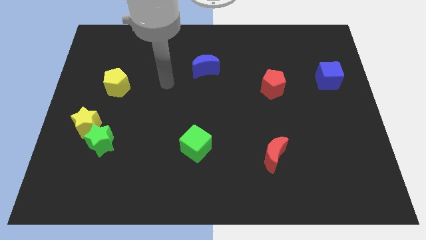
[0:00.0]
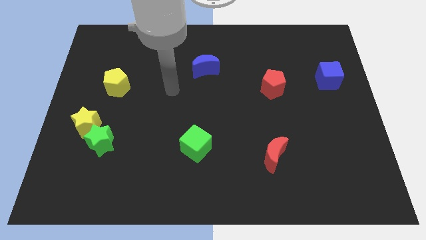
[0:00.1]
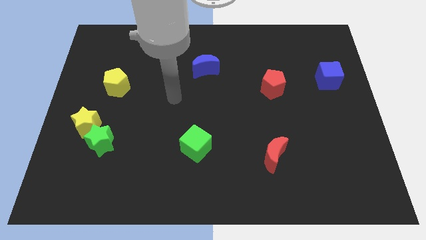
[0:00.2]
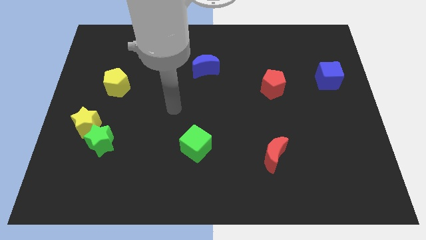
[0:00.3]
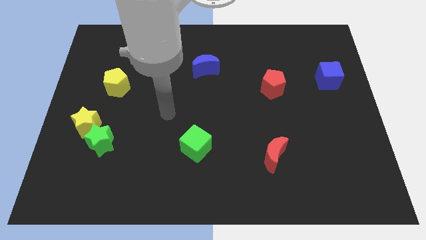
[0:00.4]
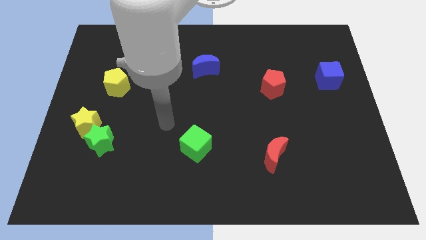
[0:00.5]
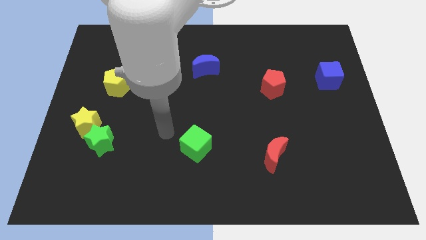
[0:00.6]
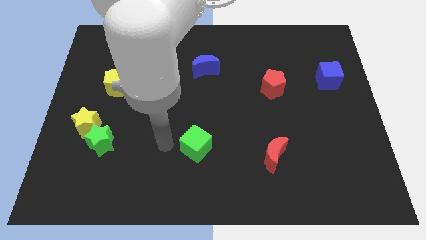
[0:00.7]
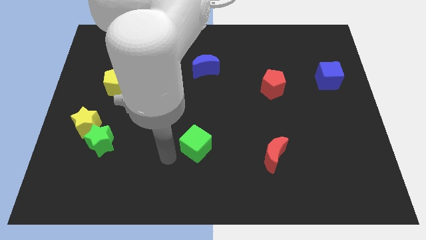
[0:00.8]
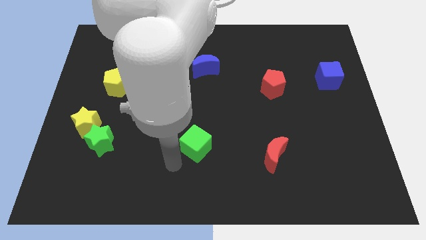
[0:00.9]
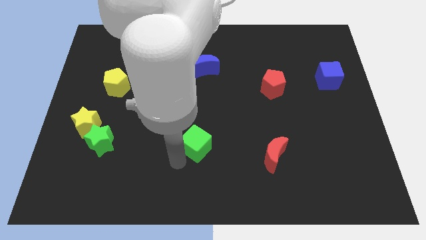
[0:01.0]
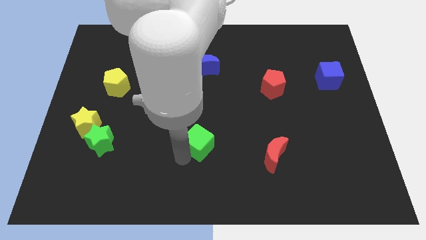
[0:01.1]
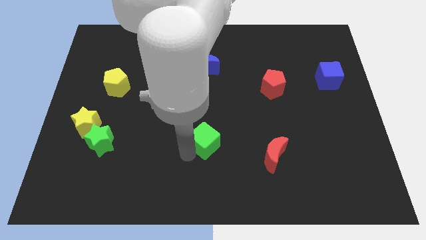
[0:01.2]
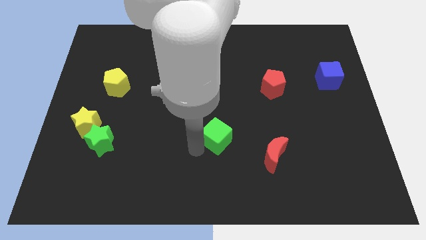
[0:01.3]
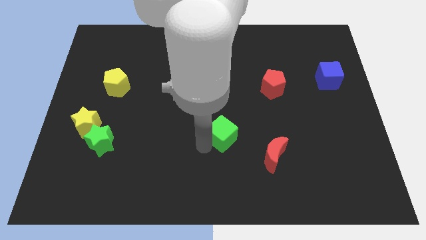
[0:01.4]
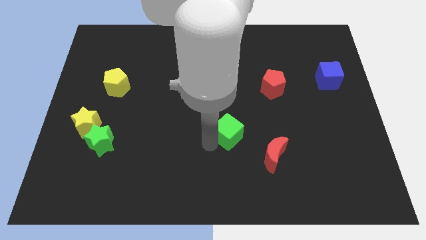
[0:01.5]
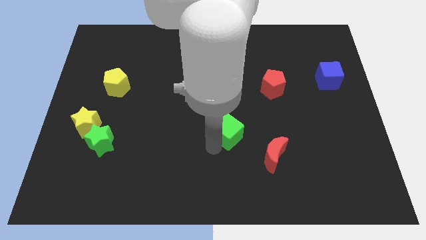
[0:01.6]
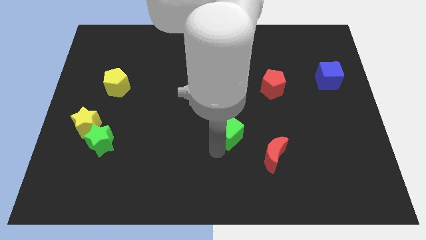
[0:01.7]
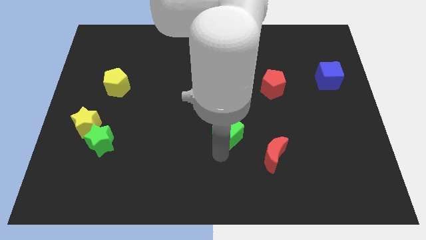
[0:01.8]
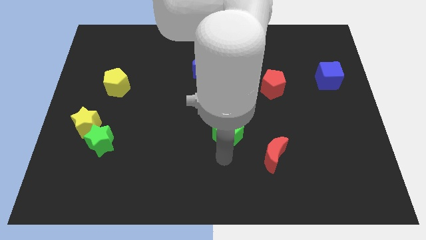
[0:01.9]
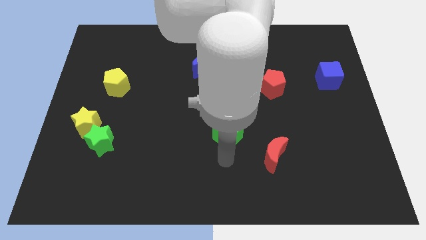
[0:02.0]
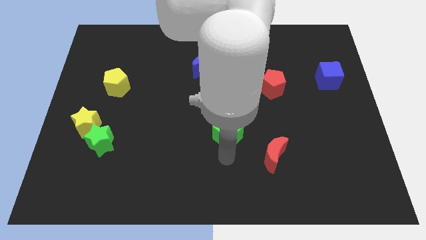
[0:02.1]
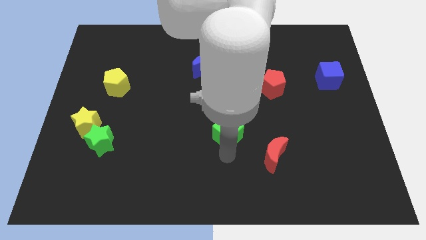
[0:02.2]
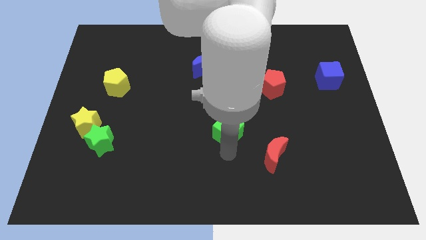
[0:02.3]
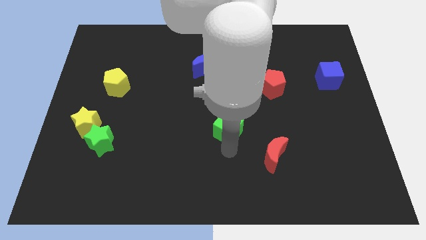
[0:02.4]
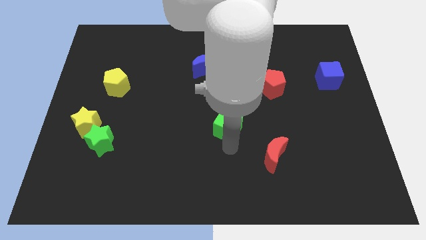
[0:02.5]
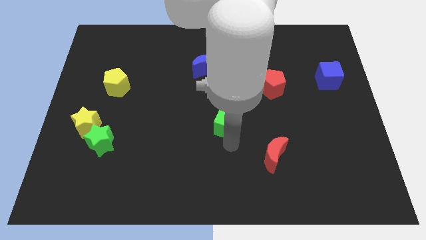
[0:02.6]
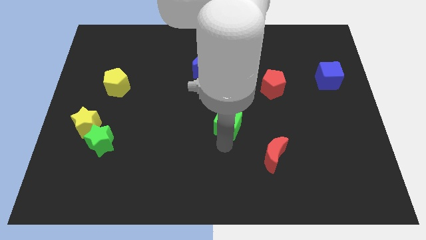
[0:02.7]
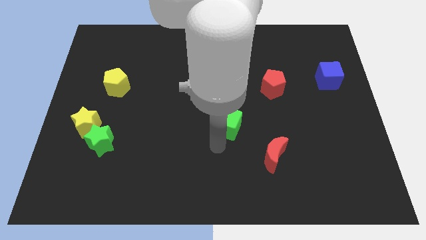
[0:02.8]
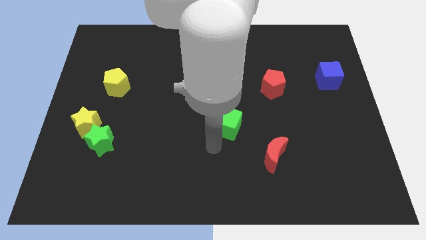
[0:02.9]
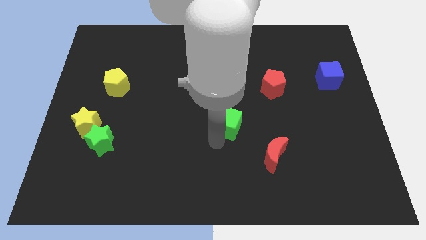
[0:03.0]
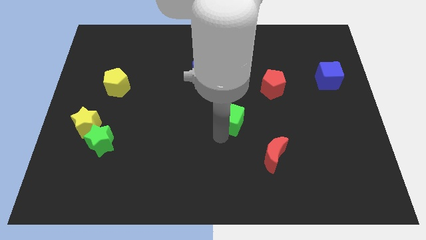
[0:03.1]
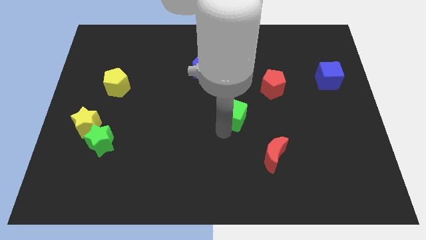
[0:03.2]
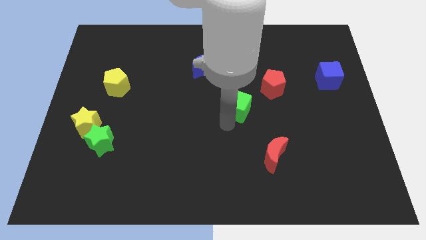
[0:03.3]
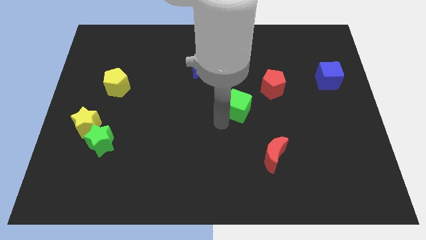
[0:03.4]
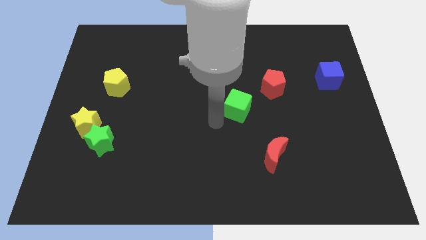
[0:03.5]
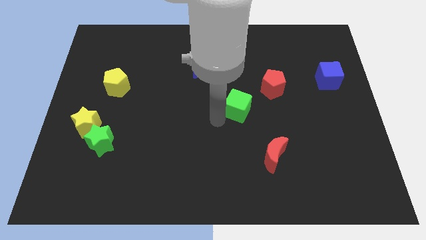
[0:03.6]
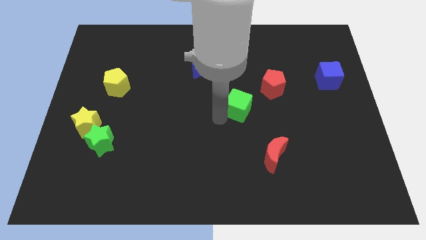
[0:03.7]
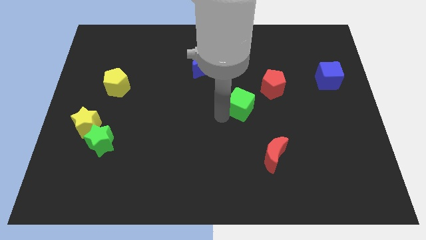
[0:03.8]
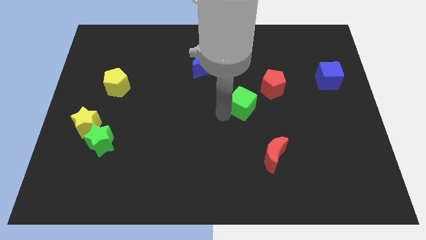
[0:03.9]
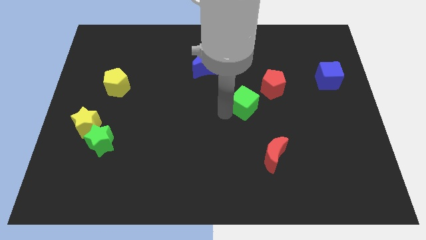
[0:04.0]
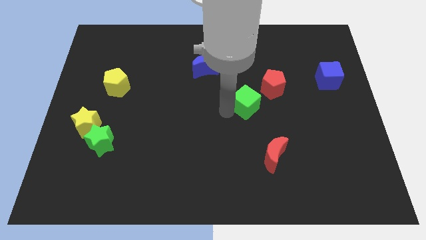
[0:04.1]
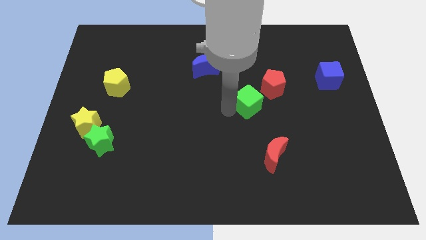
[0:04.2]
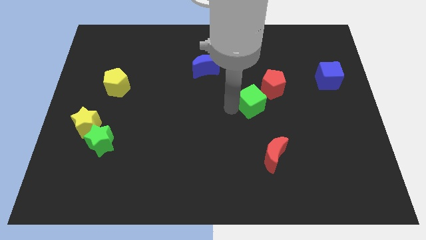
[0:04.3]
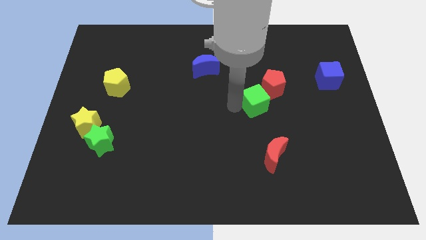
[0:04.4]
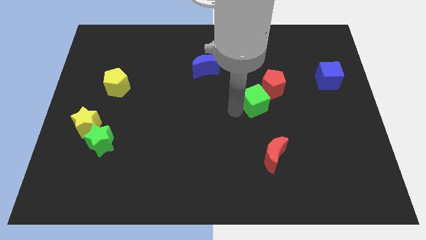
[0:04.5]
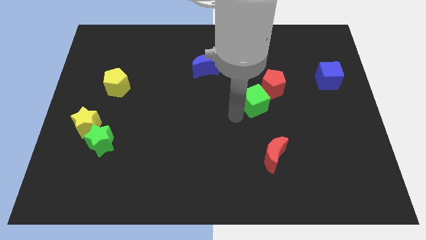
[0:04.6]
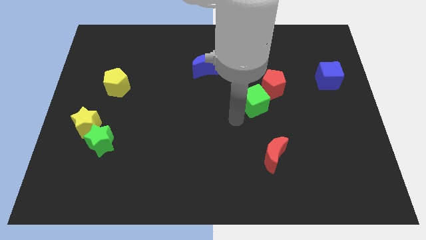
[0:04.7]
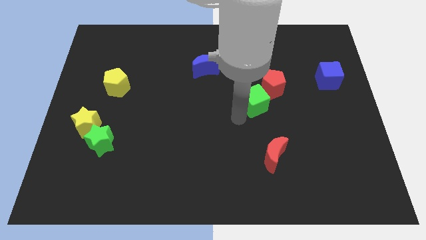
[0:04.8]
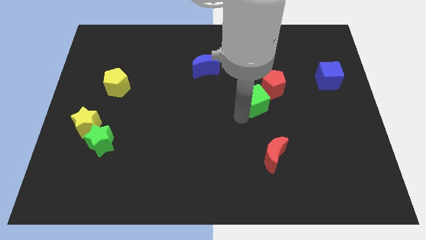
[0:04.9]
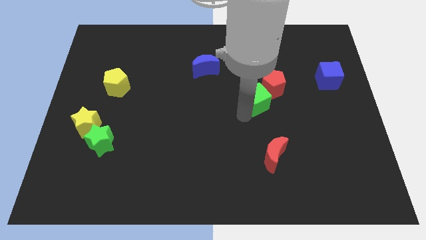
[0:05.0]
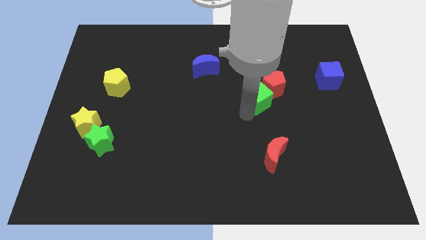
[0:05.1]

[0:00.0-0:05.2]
put the green cube next to the red pentagon

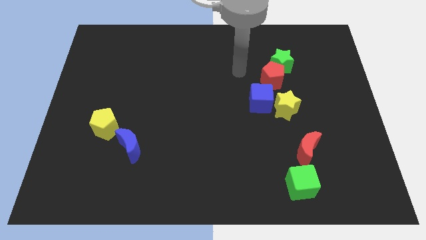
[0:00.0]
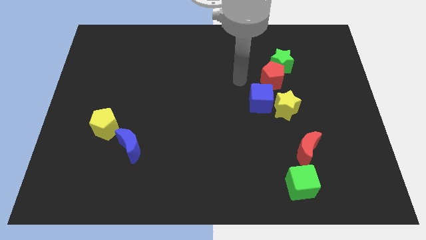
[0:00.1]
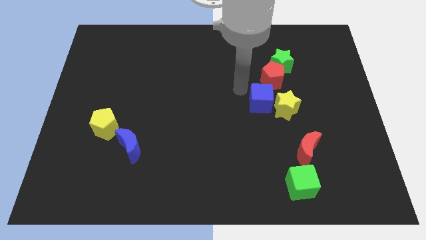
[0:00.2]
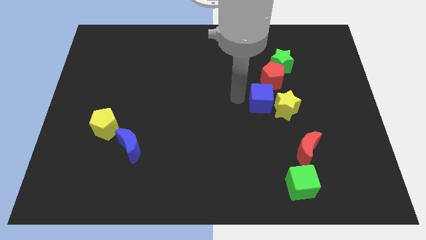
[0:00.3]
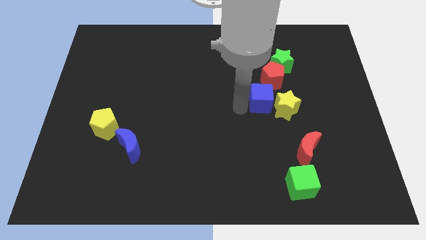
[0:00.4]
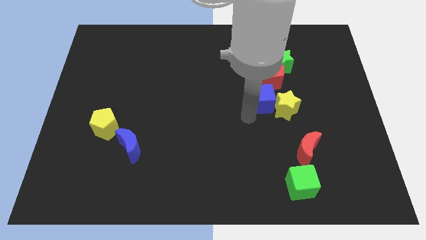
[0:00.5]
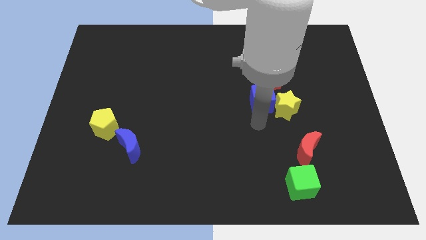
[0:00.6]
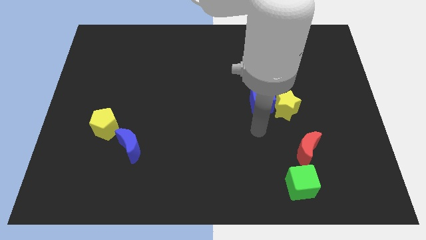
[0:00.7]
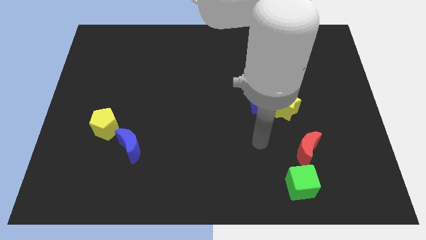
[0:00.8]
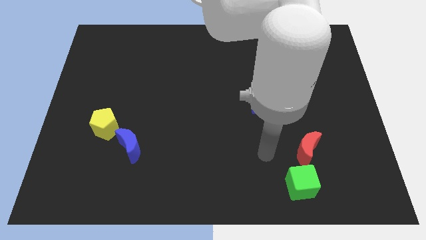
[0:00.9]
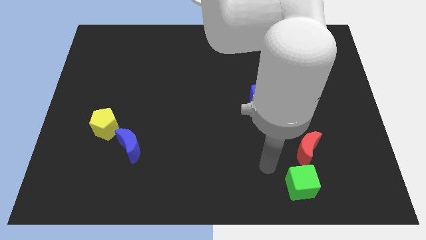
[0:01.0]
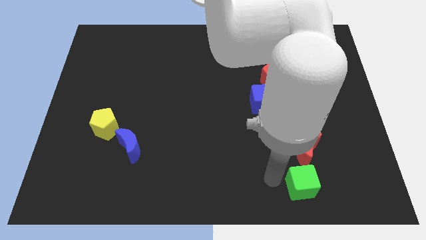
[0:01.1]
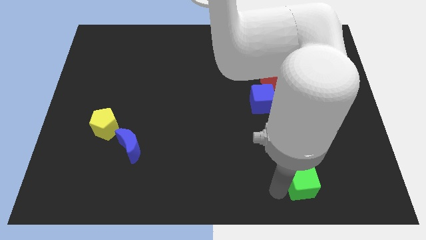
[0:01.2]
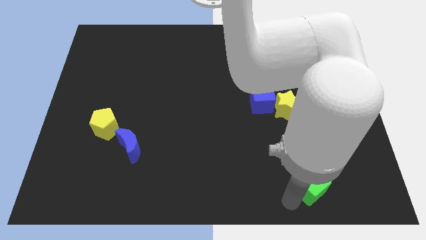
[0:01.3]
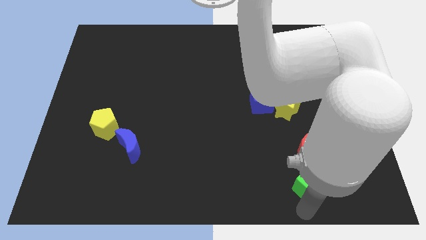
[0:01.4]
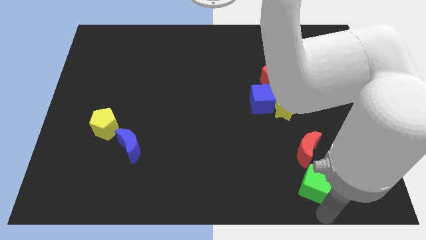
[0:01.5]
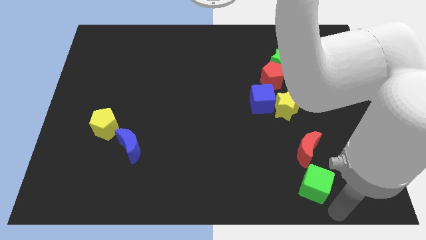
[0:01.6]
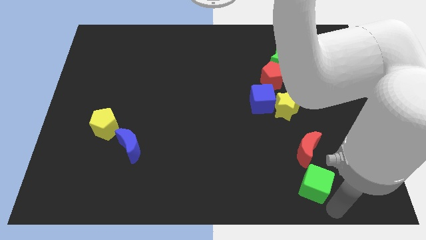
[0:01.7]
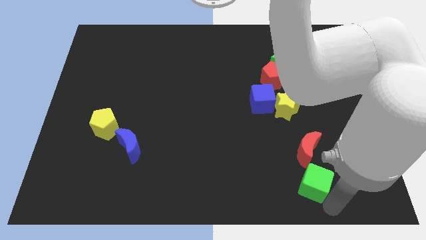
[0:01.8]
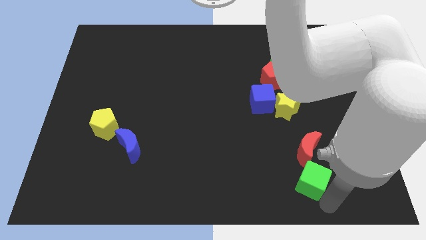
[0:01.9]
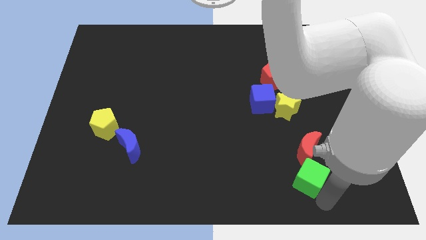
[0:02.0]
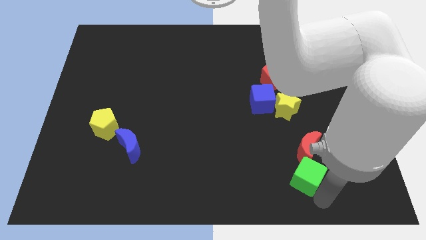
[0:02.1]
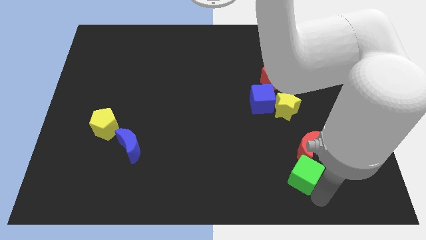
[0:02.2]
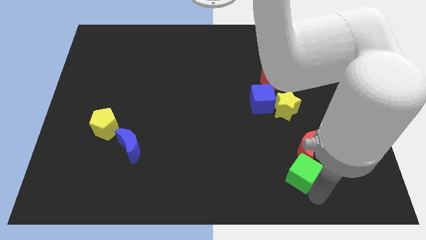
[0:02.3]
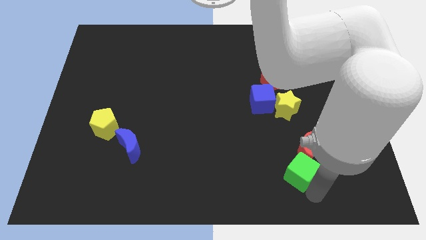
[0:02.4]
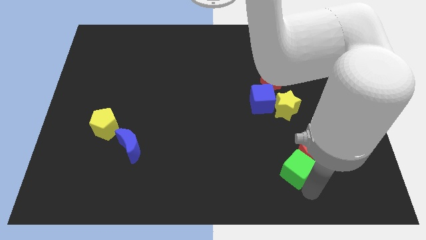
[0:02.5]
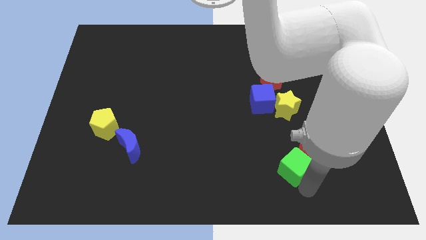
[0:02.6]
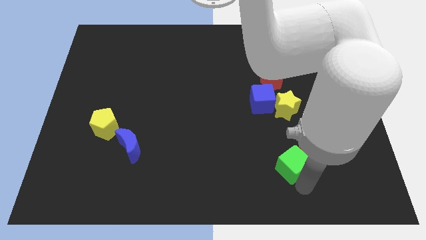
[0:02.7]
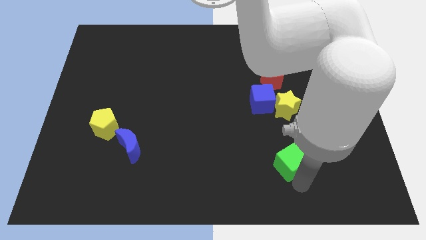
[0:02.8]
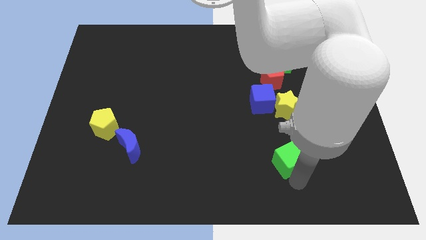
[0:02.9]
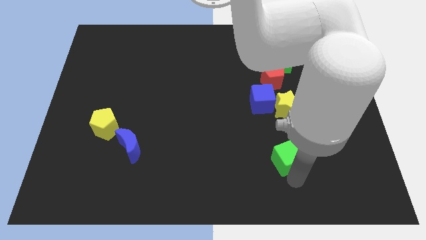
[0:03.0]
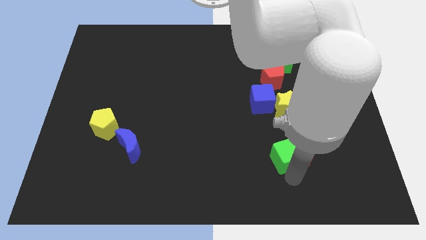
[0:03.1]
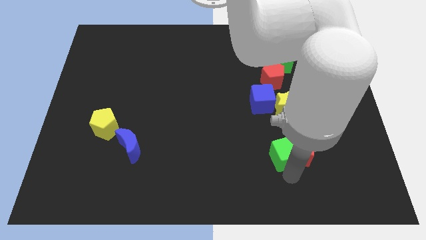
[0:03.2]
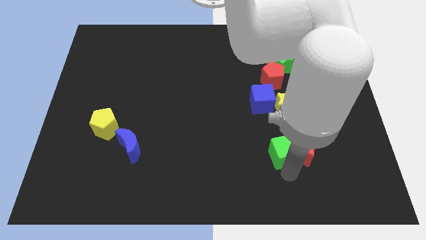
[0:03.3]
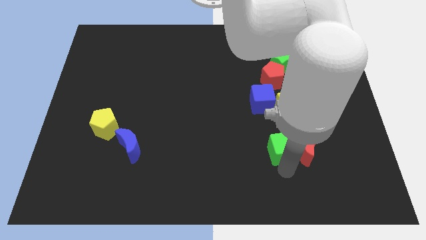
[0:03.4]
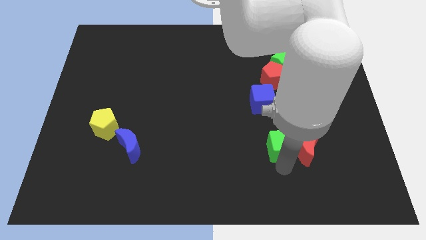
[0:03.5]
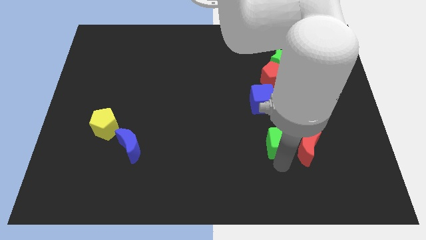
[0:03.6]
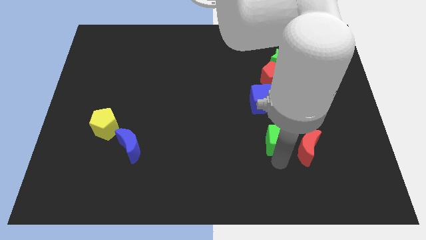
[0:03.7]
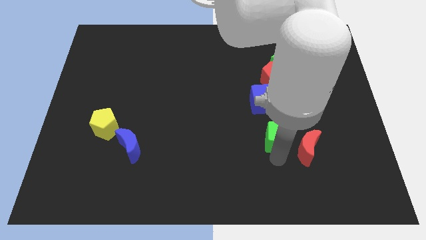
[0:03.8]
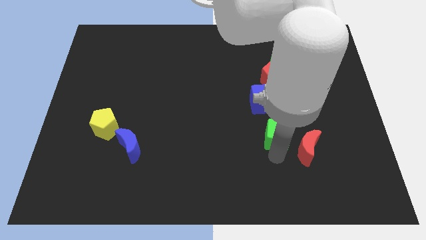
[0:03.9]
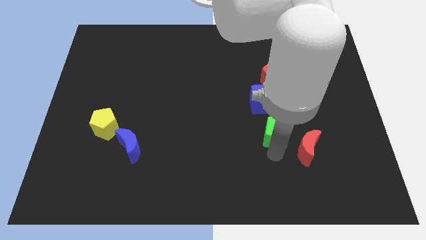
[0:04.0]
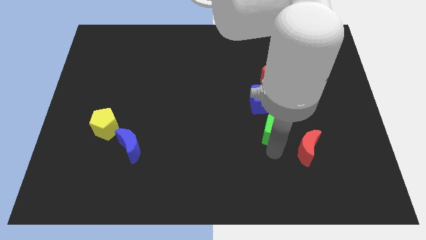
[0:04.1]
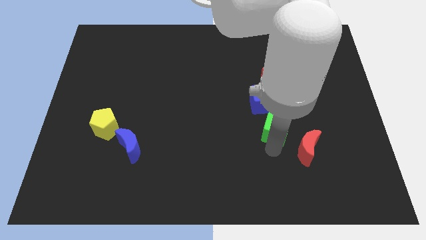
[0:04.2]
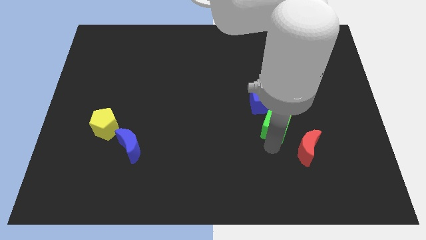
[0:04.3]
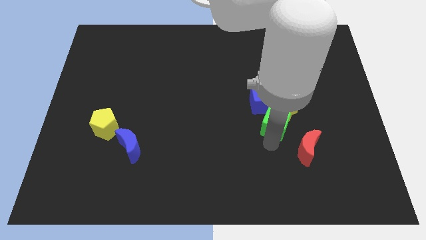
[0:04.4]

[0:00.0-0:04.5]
move the green cube next to the yellow star
